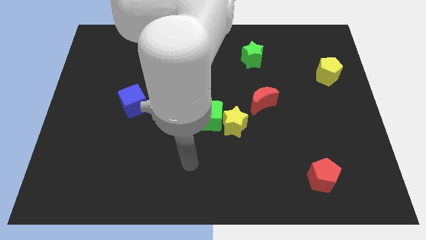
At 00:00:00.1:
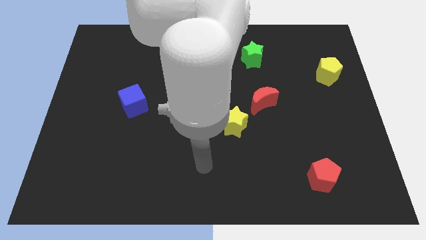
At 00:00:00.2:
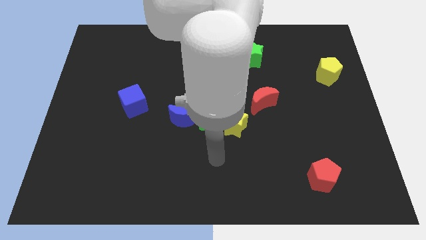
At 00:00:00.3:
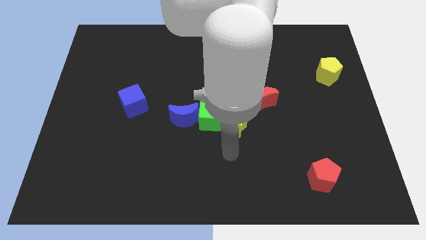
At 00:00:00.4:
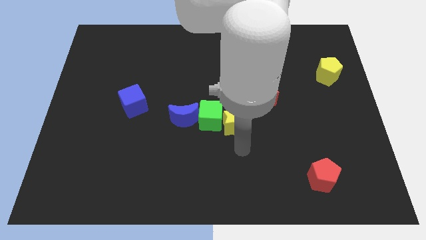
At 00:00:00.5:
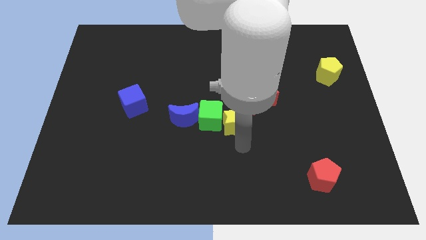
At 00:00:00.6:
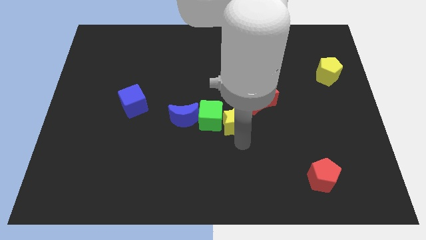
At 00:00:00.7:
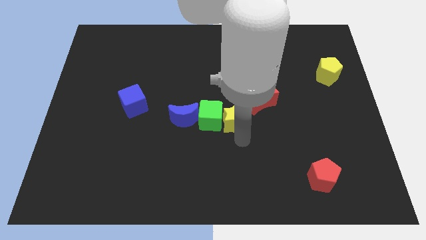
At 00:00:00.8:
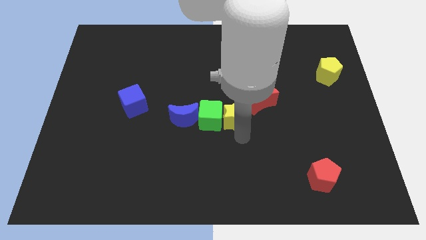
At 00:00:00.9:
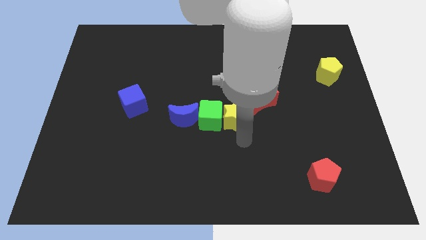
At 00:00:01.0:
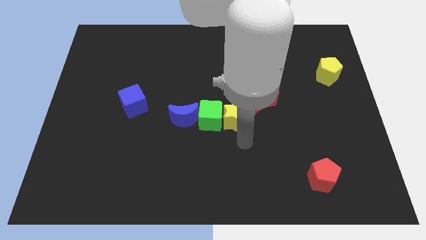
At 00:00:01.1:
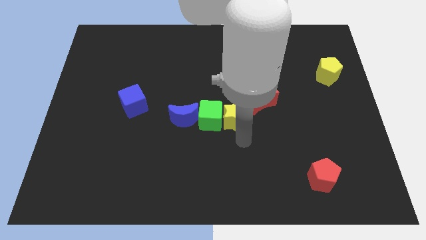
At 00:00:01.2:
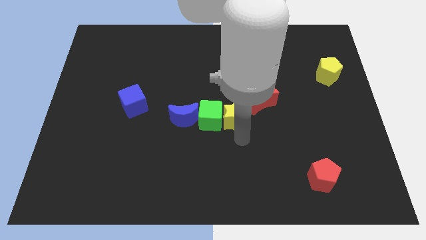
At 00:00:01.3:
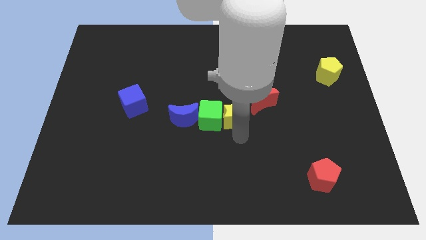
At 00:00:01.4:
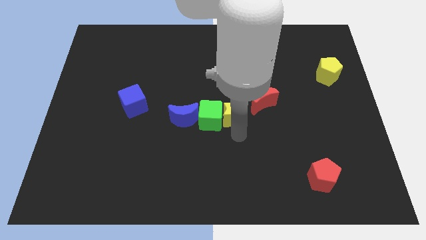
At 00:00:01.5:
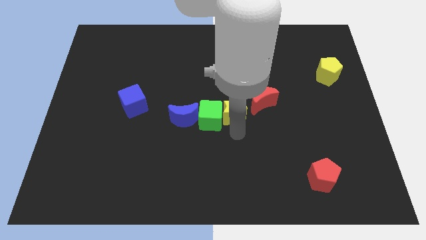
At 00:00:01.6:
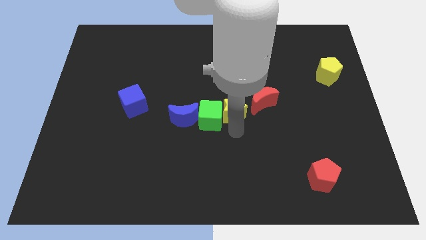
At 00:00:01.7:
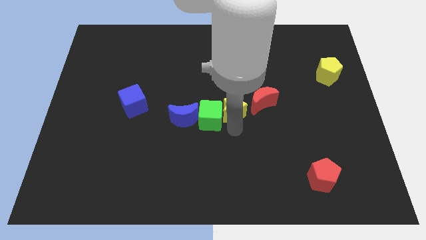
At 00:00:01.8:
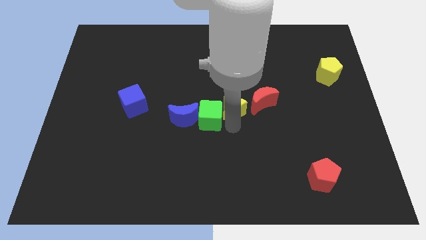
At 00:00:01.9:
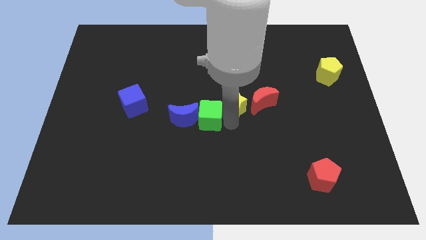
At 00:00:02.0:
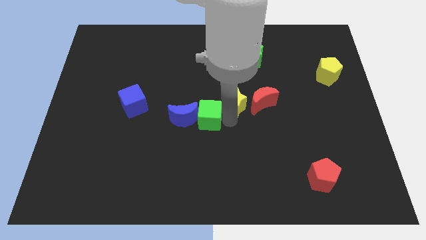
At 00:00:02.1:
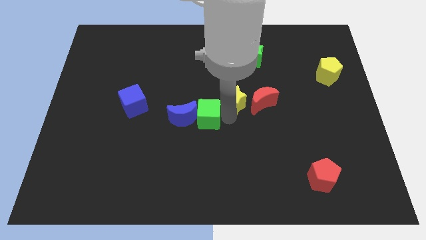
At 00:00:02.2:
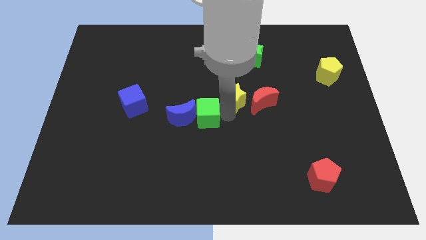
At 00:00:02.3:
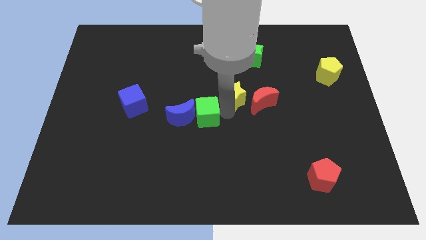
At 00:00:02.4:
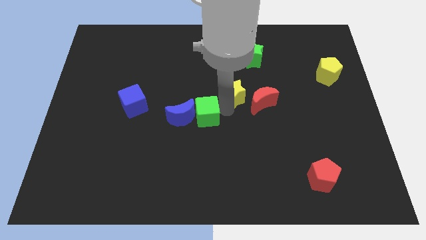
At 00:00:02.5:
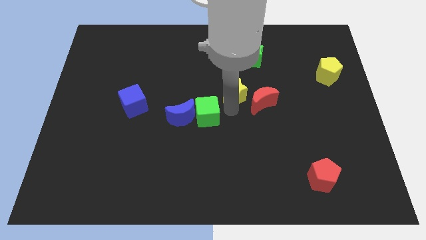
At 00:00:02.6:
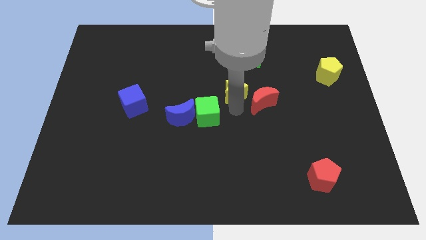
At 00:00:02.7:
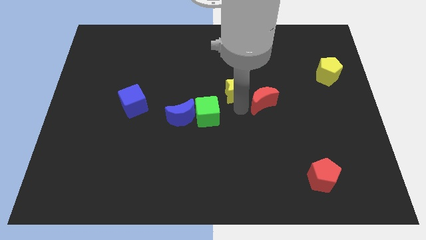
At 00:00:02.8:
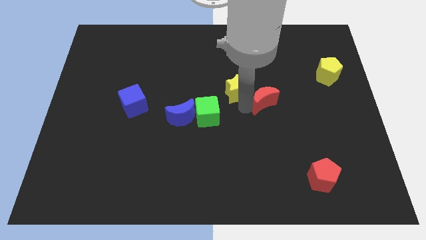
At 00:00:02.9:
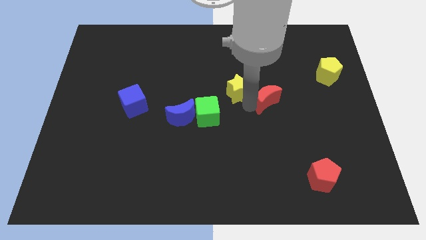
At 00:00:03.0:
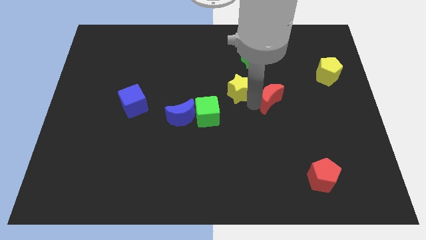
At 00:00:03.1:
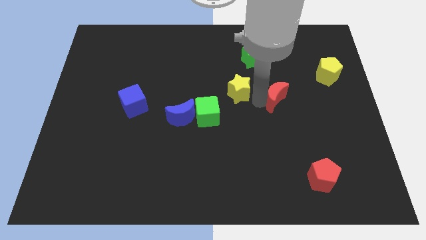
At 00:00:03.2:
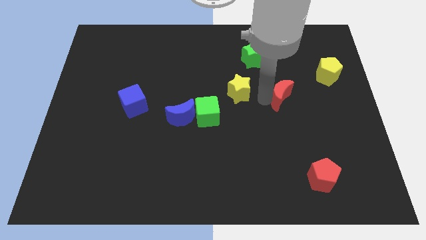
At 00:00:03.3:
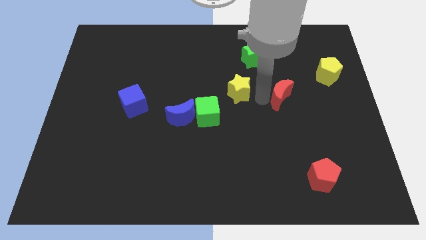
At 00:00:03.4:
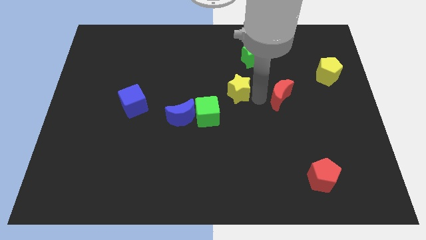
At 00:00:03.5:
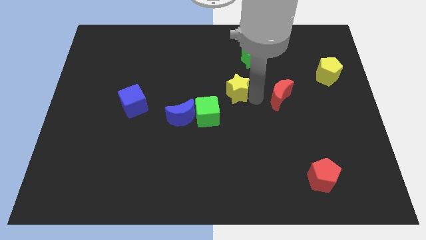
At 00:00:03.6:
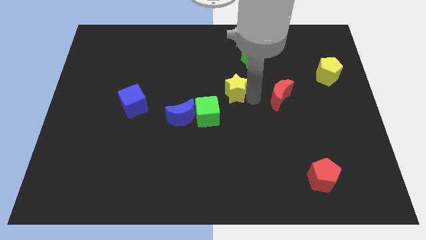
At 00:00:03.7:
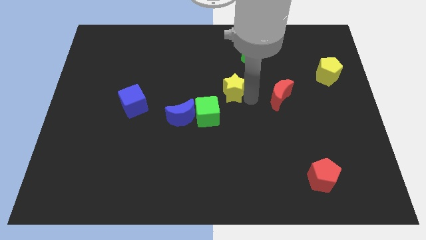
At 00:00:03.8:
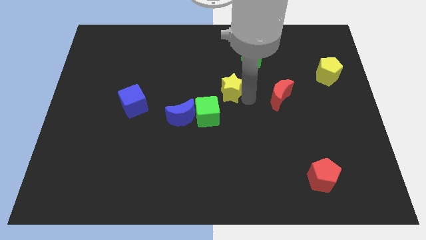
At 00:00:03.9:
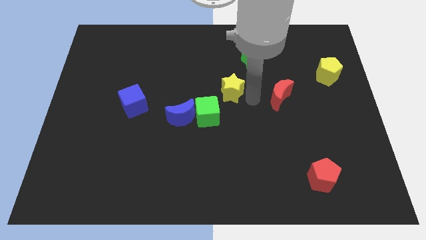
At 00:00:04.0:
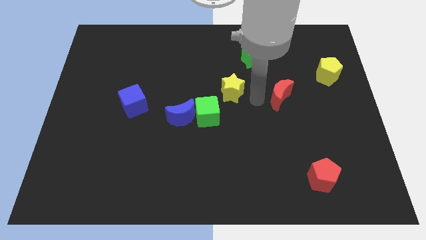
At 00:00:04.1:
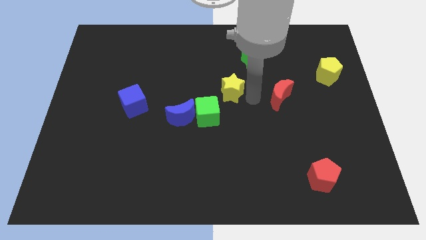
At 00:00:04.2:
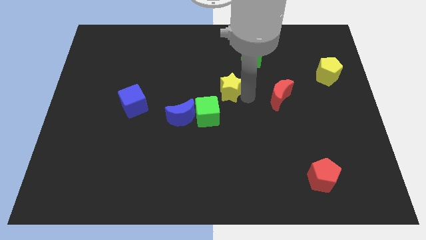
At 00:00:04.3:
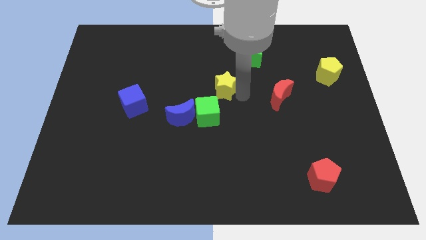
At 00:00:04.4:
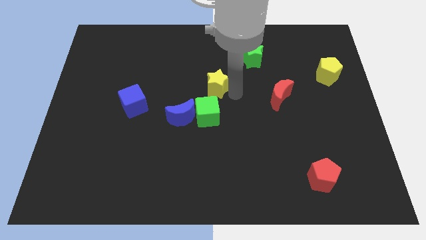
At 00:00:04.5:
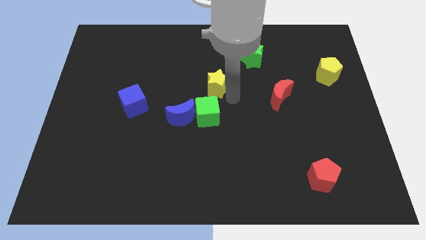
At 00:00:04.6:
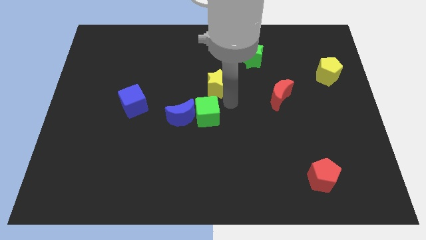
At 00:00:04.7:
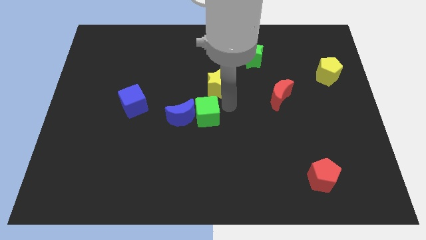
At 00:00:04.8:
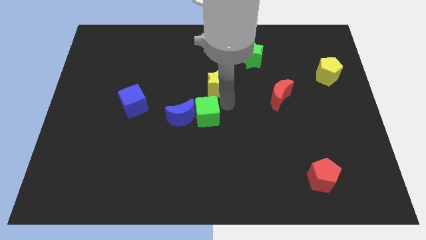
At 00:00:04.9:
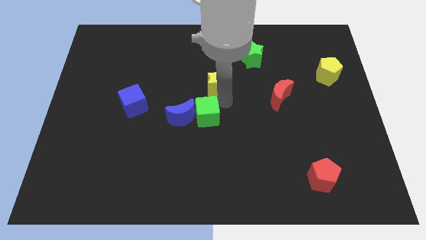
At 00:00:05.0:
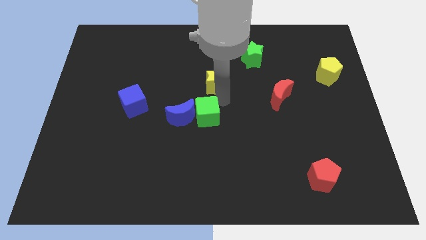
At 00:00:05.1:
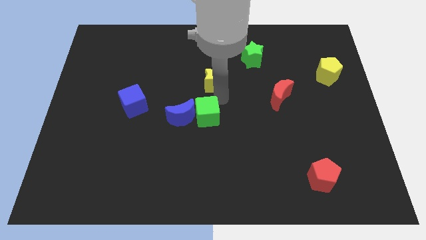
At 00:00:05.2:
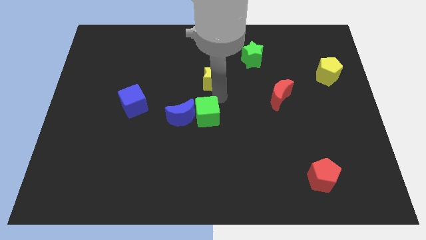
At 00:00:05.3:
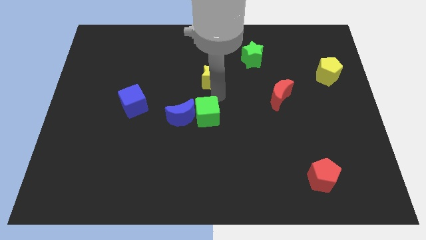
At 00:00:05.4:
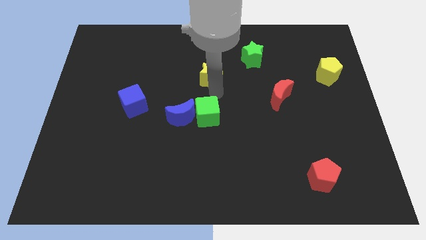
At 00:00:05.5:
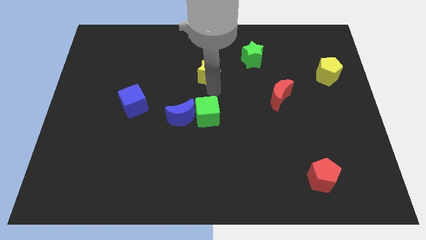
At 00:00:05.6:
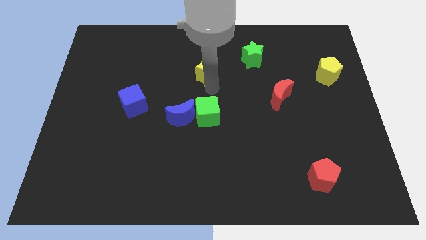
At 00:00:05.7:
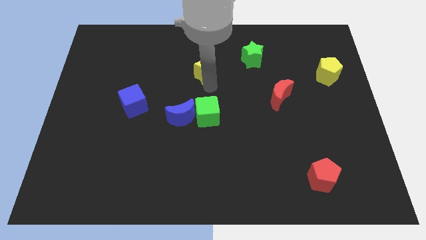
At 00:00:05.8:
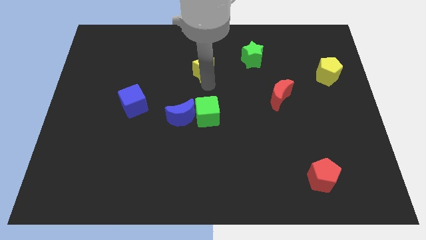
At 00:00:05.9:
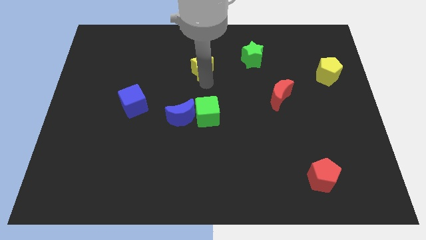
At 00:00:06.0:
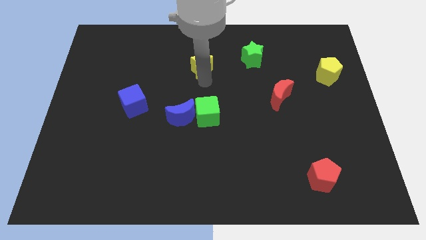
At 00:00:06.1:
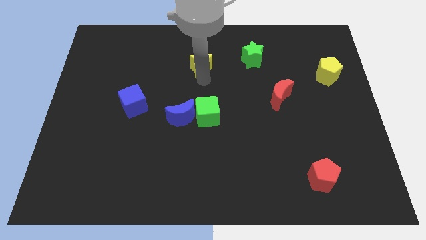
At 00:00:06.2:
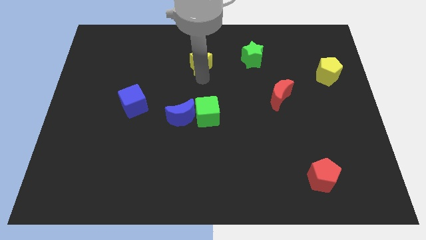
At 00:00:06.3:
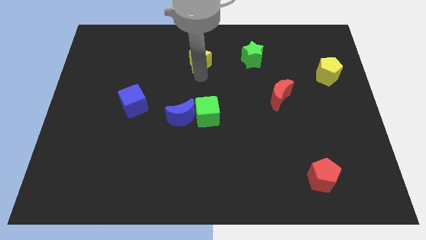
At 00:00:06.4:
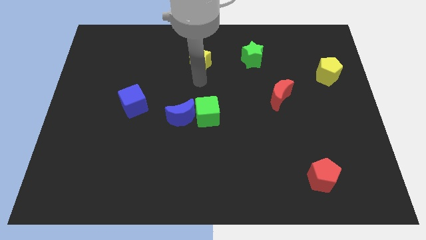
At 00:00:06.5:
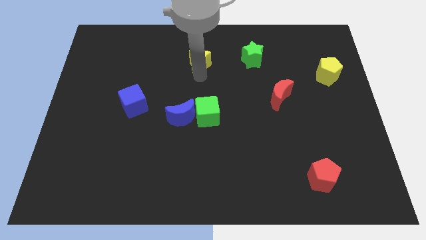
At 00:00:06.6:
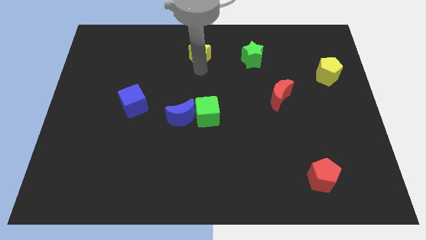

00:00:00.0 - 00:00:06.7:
move the yellow star to the towards your base
